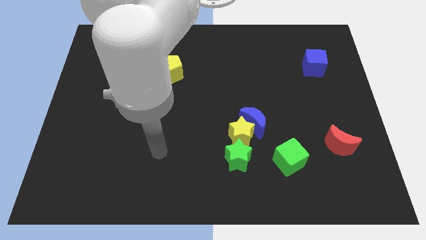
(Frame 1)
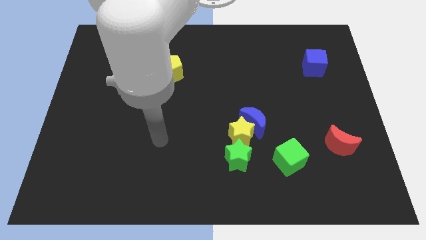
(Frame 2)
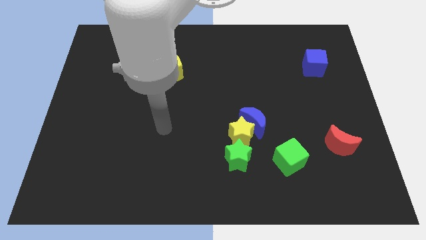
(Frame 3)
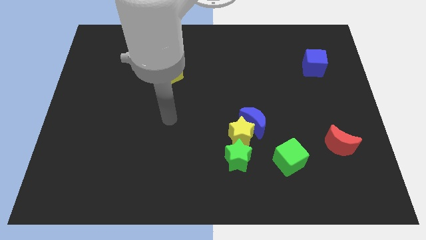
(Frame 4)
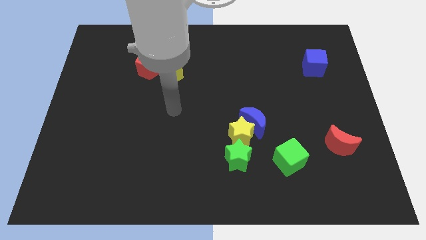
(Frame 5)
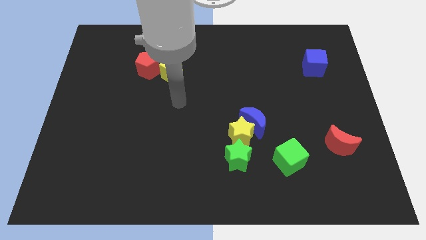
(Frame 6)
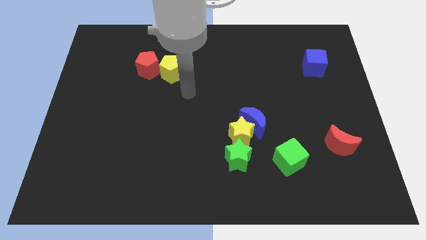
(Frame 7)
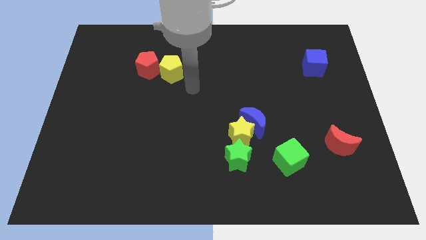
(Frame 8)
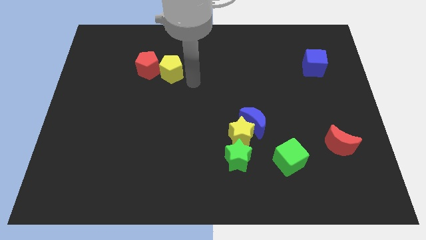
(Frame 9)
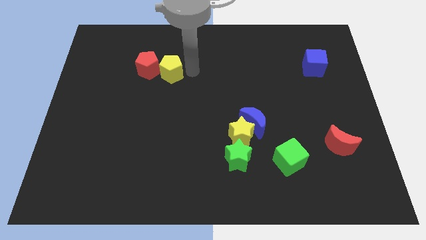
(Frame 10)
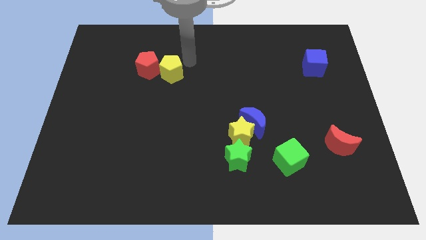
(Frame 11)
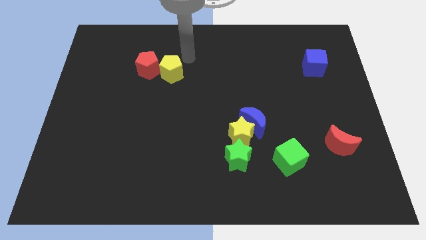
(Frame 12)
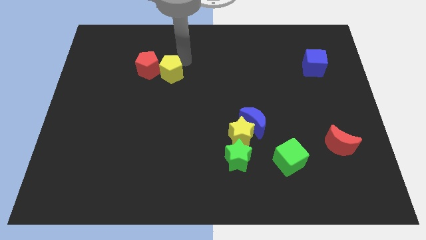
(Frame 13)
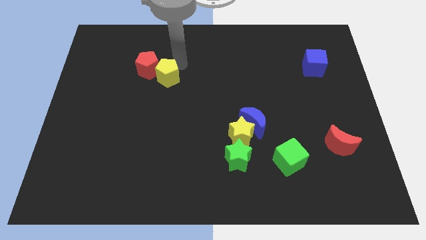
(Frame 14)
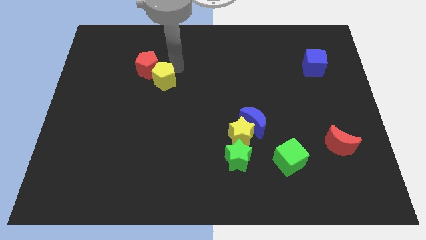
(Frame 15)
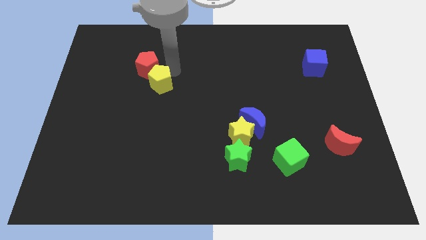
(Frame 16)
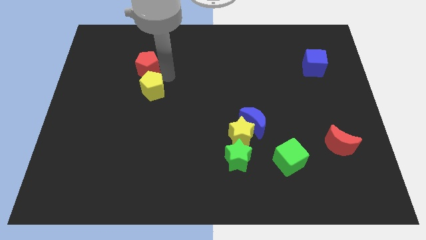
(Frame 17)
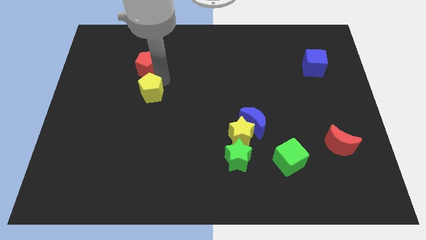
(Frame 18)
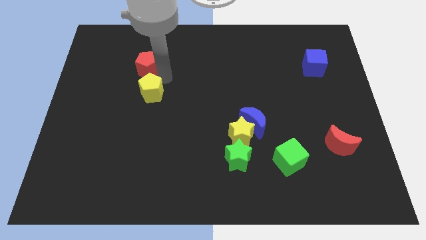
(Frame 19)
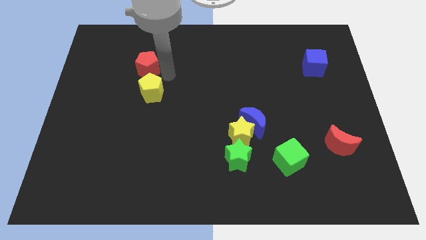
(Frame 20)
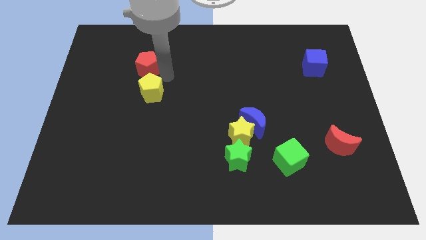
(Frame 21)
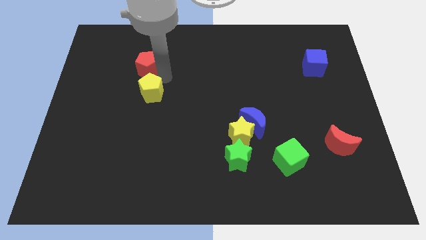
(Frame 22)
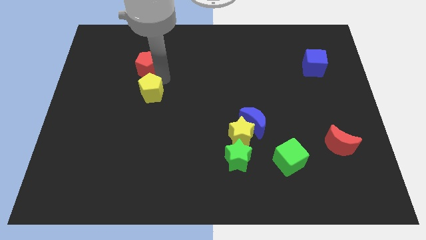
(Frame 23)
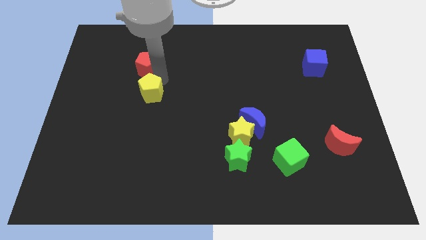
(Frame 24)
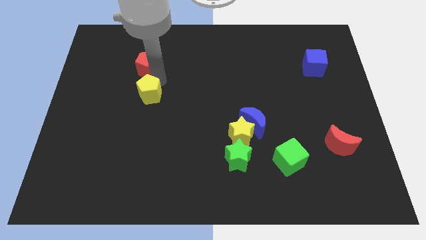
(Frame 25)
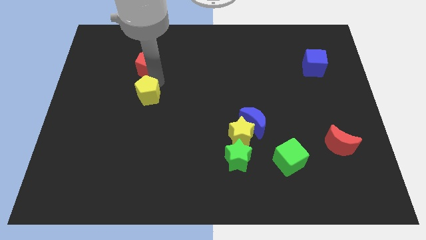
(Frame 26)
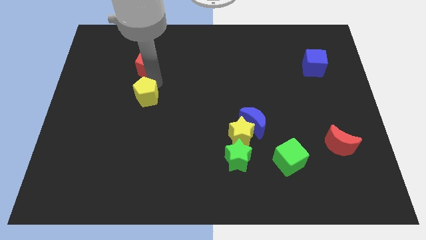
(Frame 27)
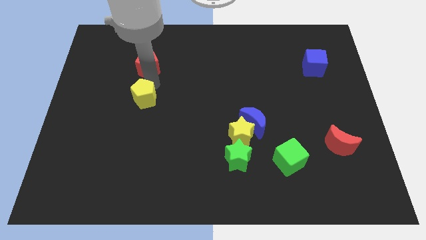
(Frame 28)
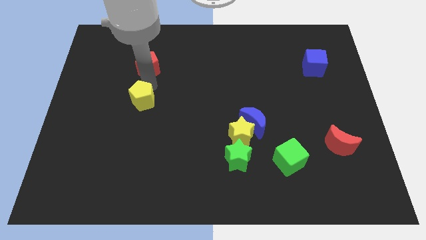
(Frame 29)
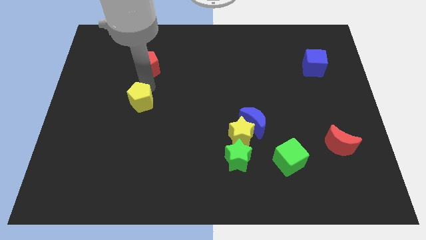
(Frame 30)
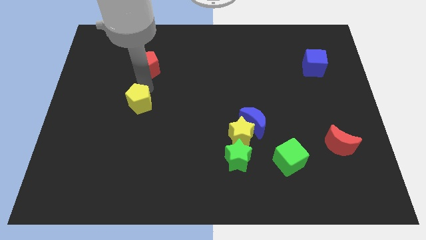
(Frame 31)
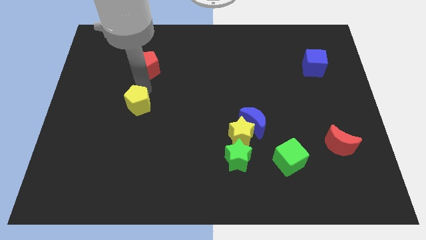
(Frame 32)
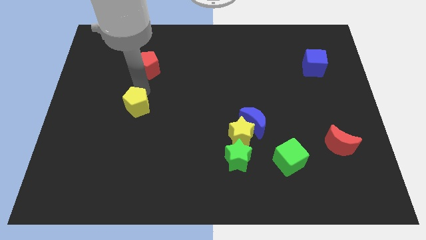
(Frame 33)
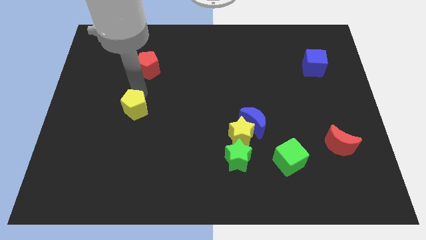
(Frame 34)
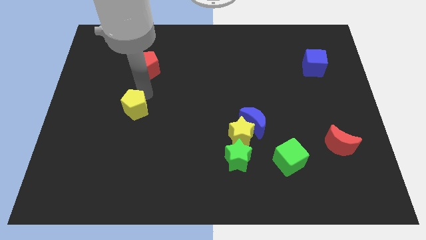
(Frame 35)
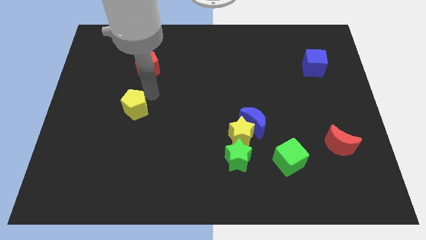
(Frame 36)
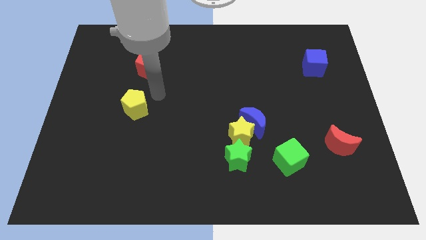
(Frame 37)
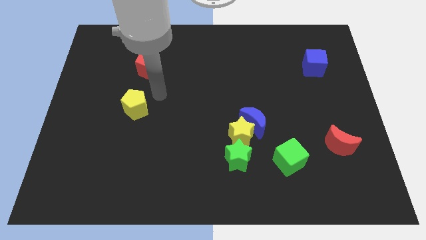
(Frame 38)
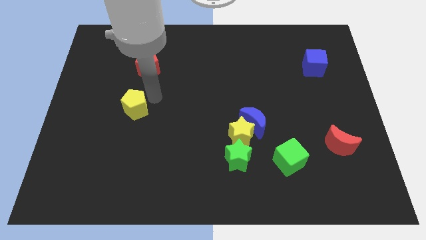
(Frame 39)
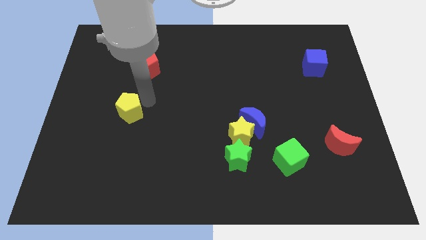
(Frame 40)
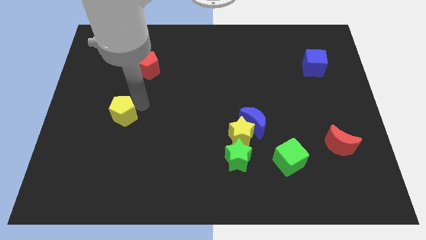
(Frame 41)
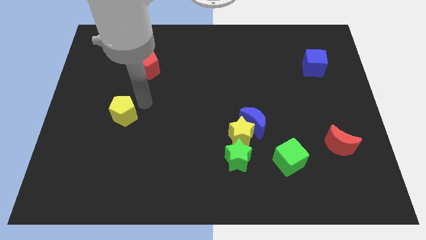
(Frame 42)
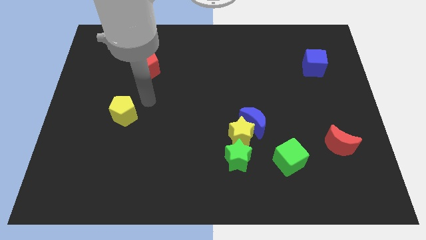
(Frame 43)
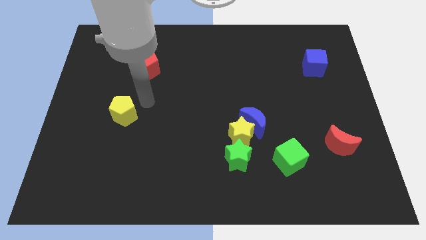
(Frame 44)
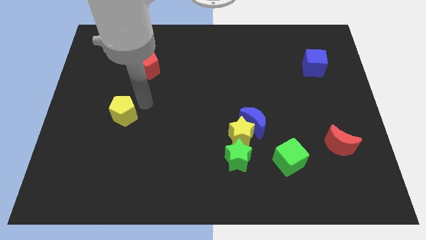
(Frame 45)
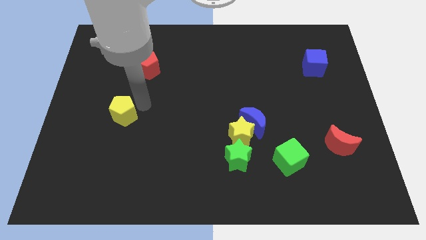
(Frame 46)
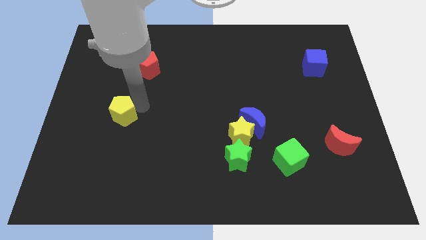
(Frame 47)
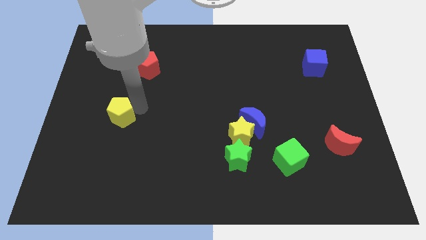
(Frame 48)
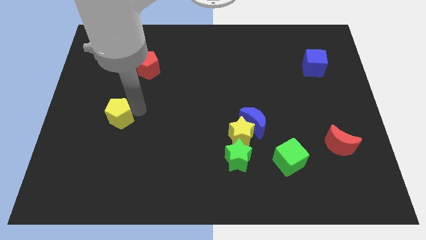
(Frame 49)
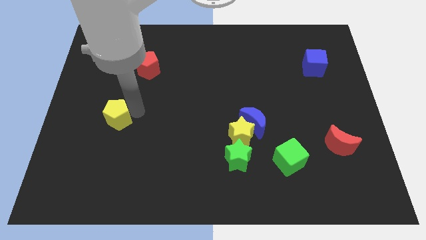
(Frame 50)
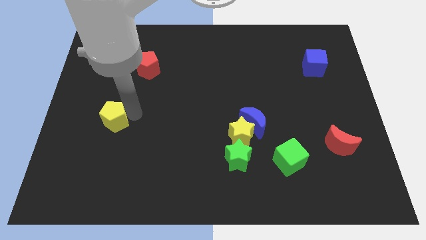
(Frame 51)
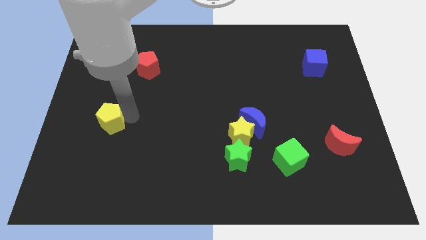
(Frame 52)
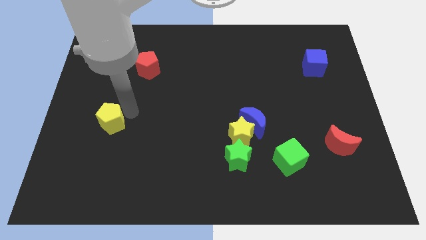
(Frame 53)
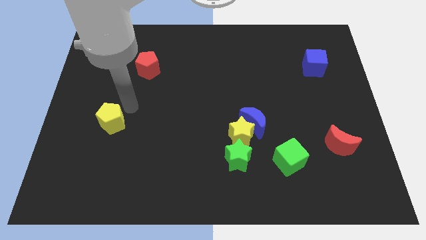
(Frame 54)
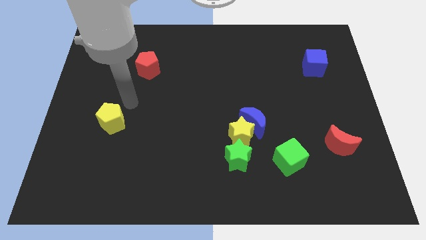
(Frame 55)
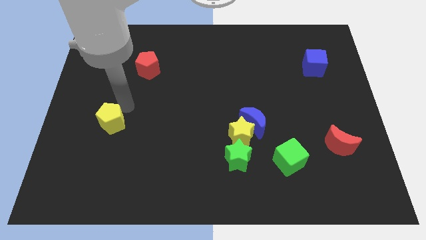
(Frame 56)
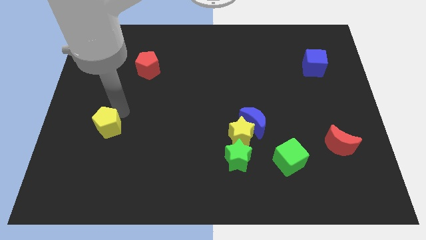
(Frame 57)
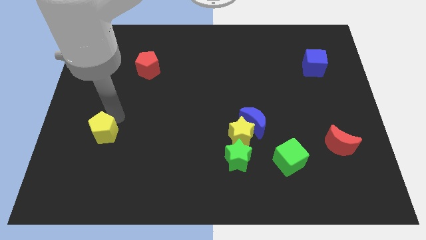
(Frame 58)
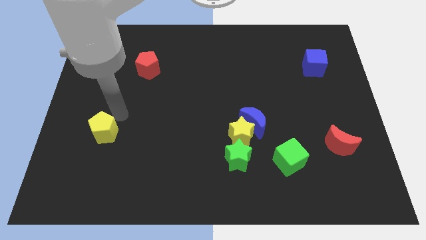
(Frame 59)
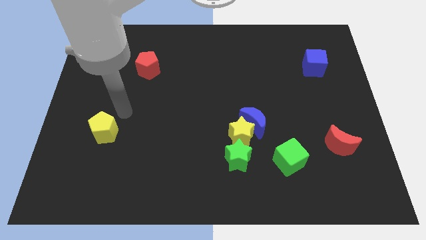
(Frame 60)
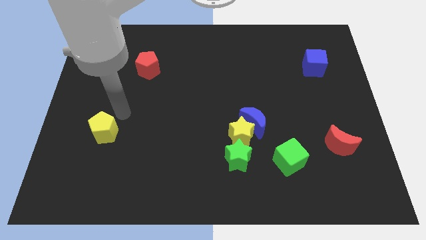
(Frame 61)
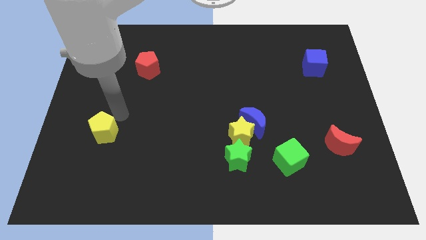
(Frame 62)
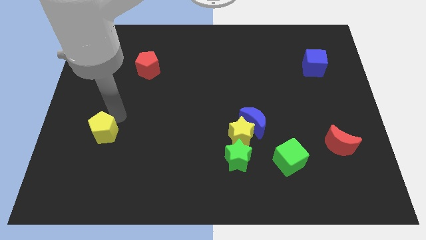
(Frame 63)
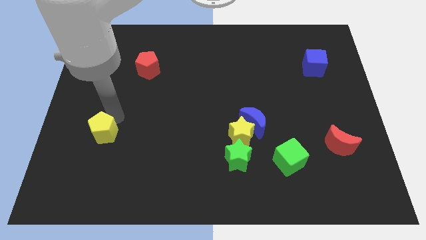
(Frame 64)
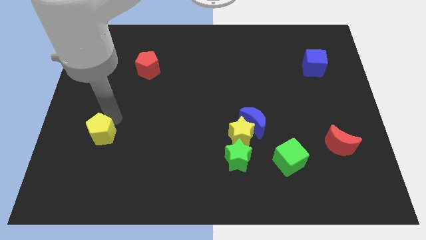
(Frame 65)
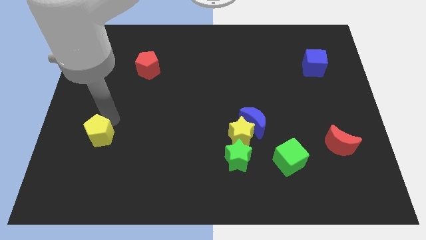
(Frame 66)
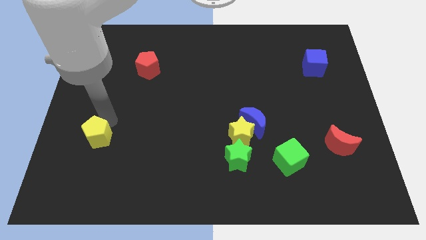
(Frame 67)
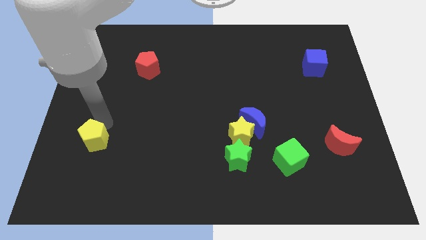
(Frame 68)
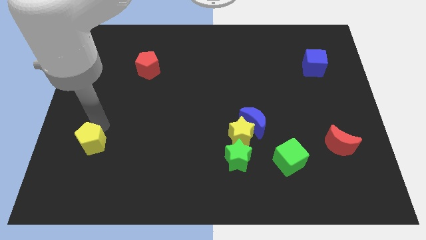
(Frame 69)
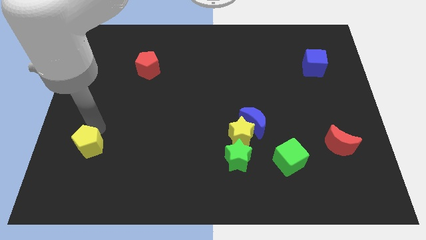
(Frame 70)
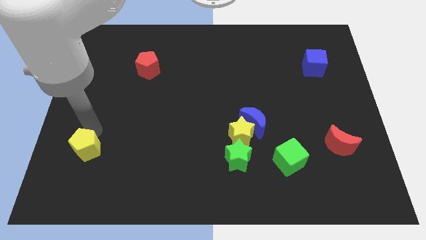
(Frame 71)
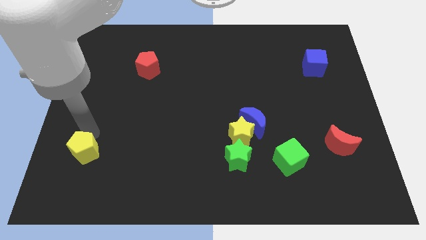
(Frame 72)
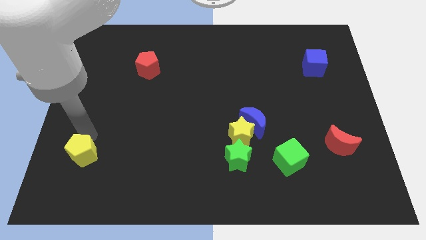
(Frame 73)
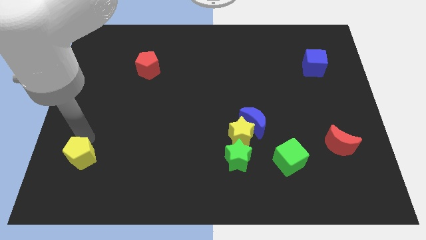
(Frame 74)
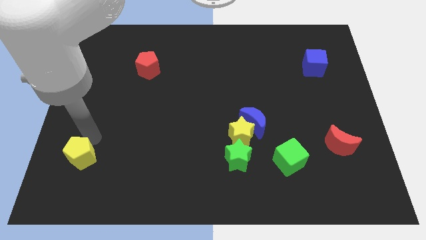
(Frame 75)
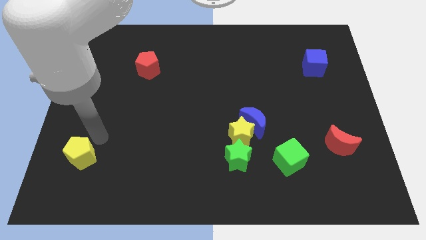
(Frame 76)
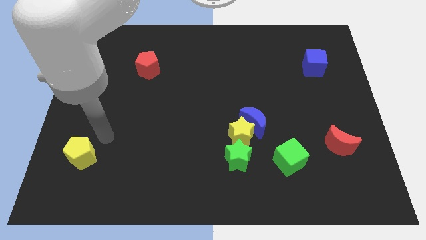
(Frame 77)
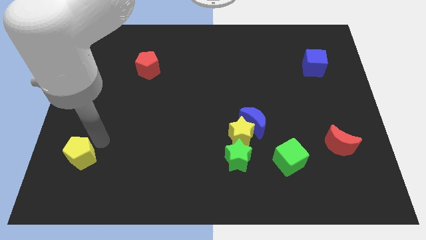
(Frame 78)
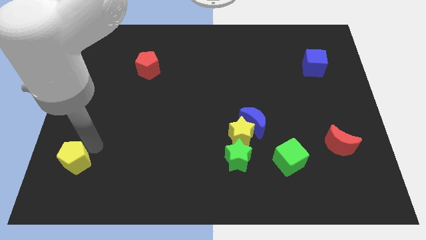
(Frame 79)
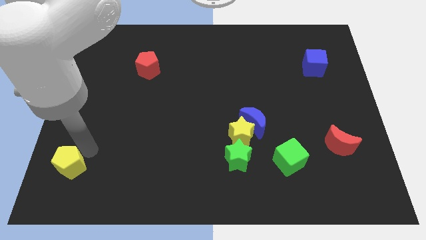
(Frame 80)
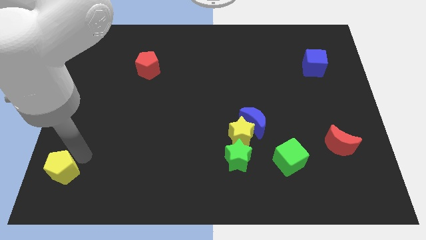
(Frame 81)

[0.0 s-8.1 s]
put the yellow pentagon to the bottom left
